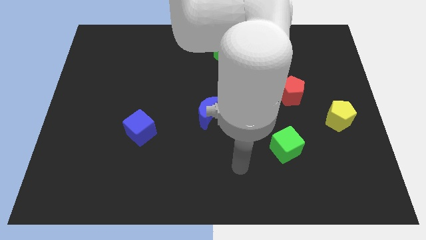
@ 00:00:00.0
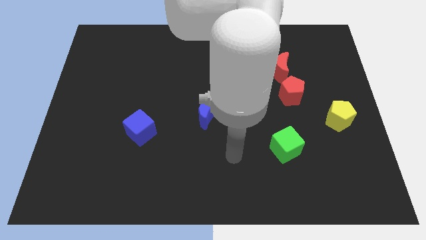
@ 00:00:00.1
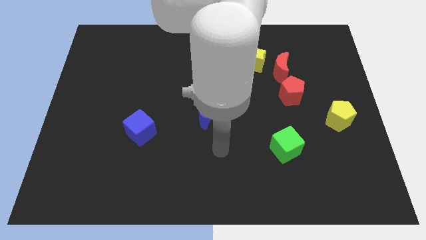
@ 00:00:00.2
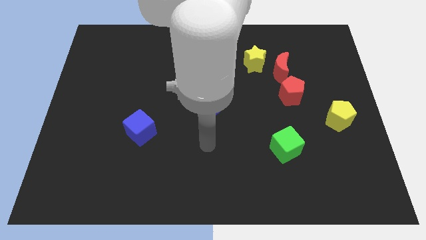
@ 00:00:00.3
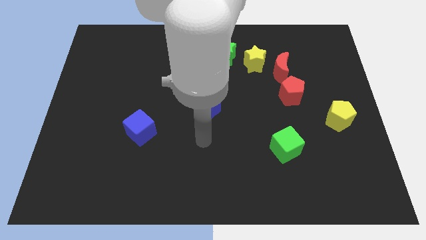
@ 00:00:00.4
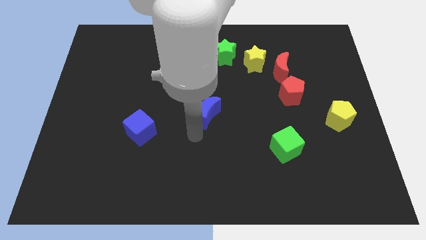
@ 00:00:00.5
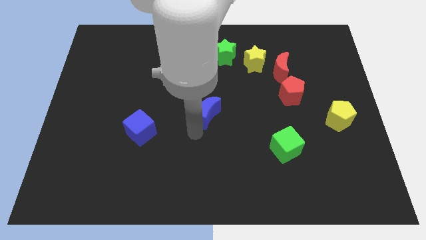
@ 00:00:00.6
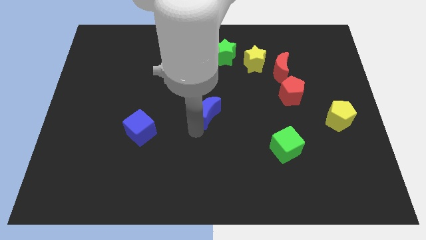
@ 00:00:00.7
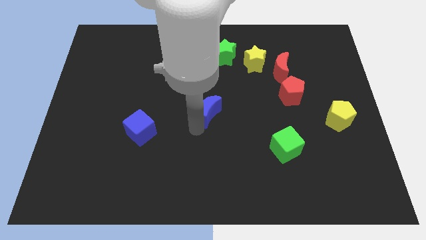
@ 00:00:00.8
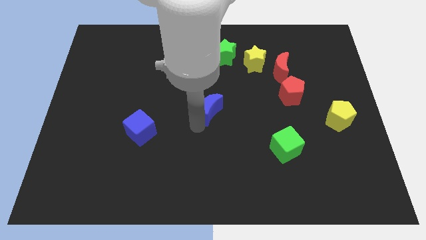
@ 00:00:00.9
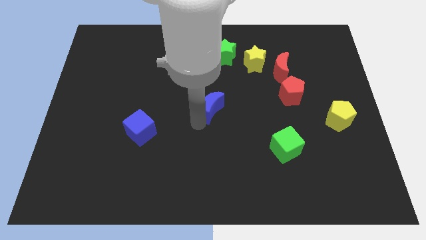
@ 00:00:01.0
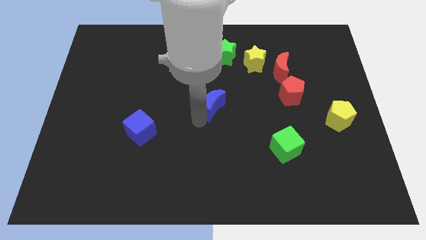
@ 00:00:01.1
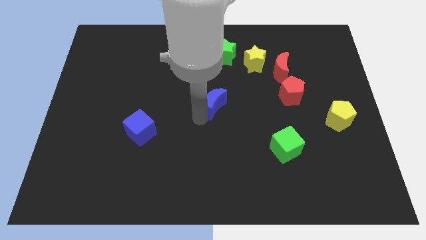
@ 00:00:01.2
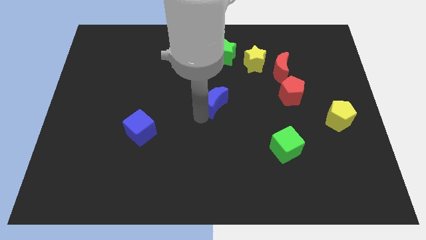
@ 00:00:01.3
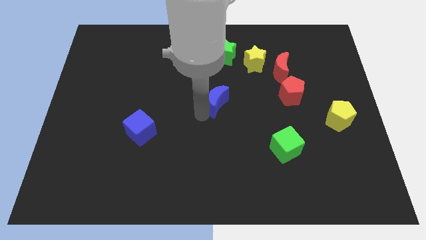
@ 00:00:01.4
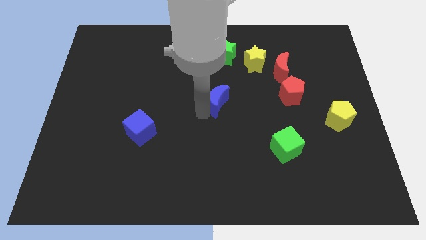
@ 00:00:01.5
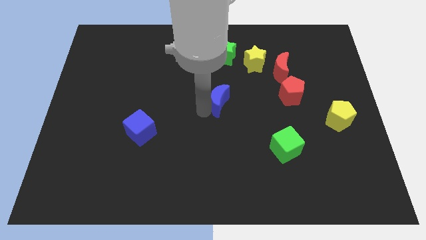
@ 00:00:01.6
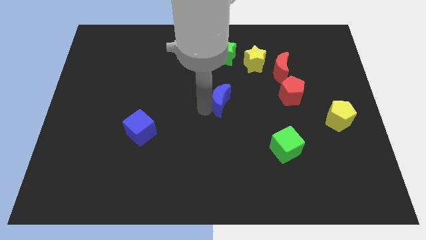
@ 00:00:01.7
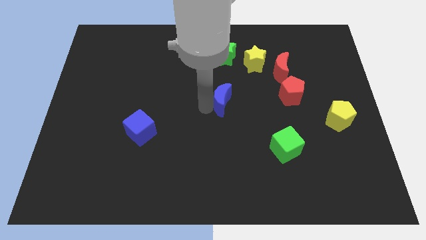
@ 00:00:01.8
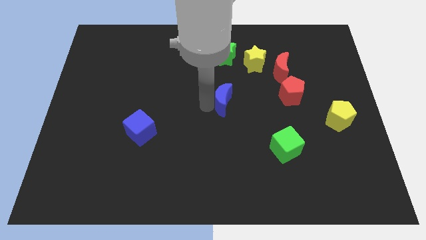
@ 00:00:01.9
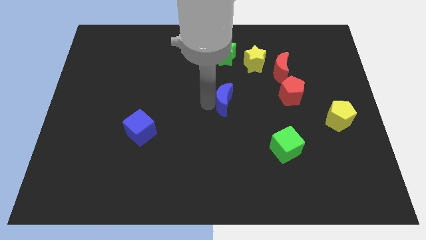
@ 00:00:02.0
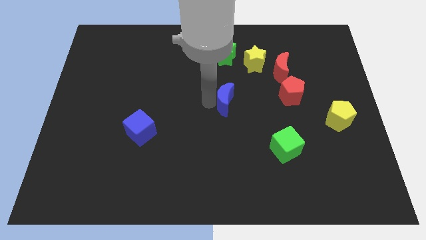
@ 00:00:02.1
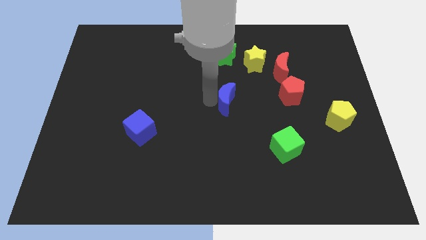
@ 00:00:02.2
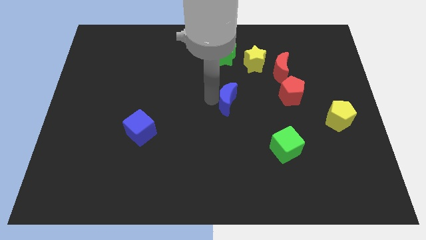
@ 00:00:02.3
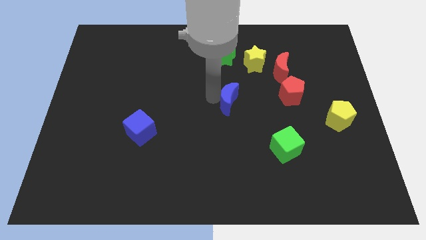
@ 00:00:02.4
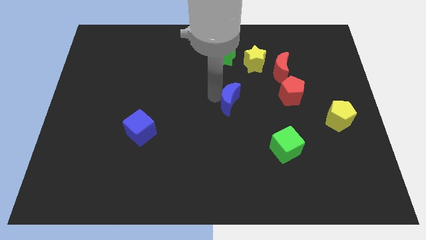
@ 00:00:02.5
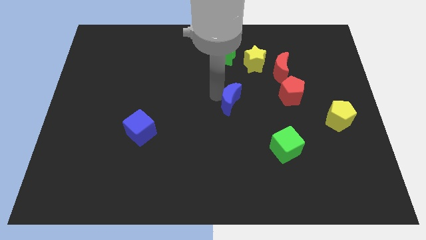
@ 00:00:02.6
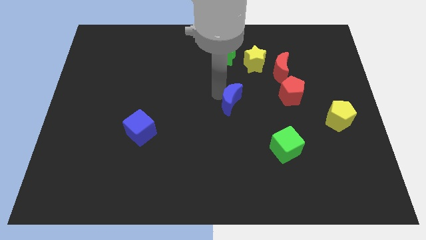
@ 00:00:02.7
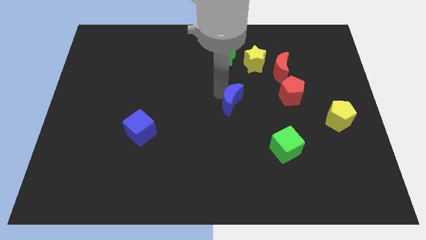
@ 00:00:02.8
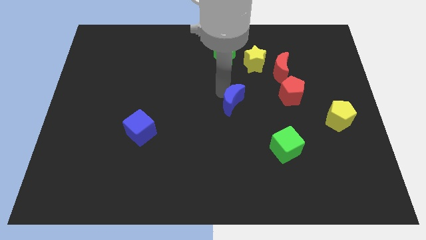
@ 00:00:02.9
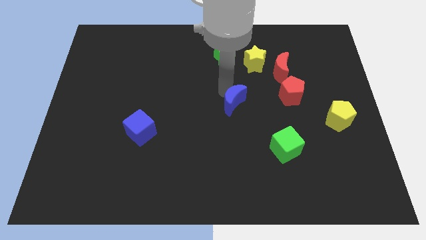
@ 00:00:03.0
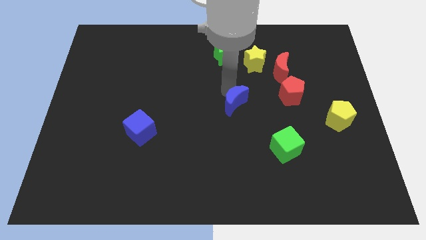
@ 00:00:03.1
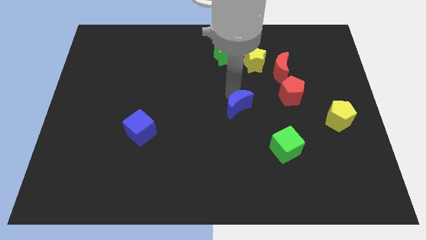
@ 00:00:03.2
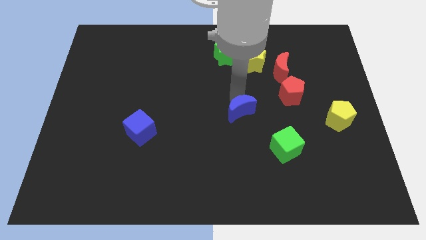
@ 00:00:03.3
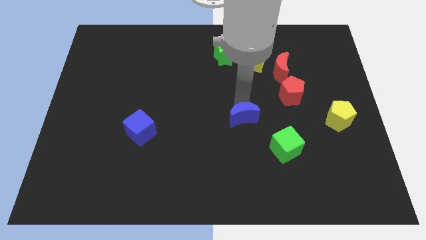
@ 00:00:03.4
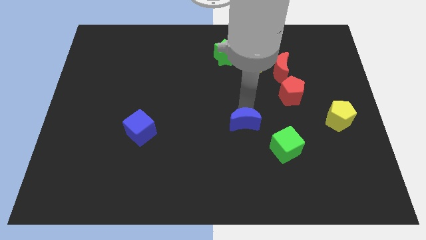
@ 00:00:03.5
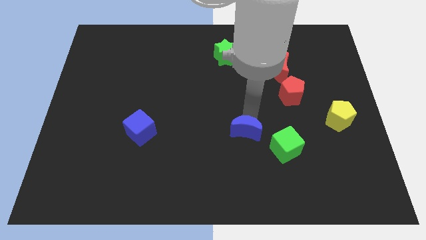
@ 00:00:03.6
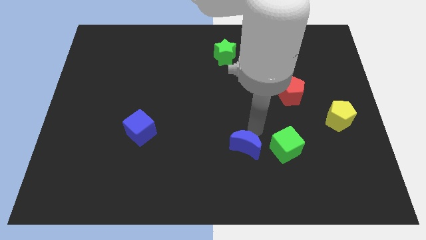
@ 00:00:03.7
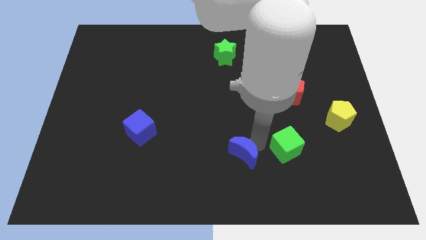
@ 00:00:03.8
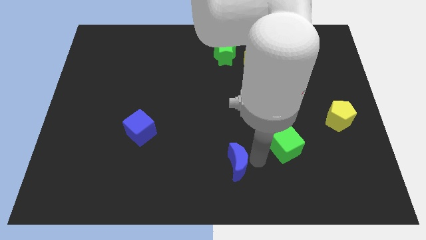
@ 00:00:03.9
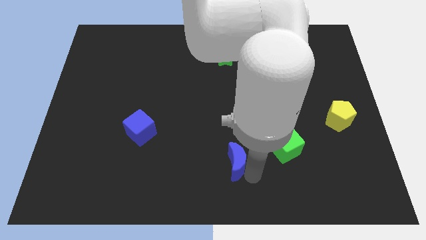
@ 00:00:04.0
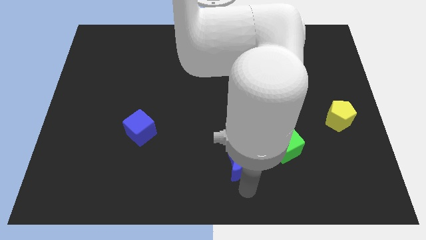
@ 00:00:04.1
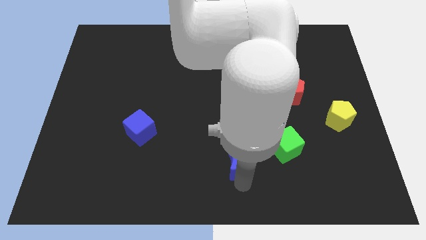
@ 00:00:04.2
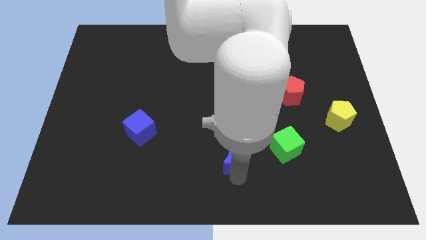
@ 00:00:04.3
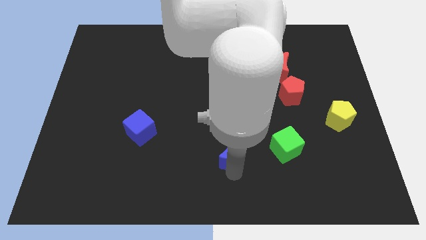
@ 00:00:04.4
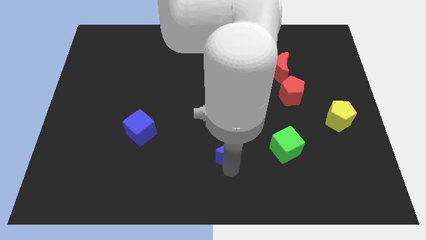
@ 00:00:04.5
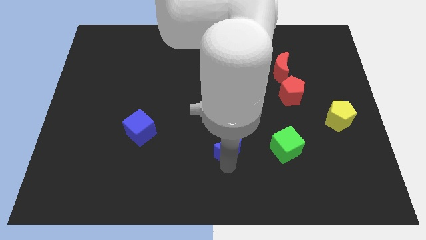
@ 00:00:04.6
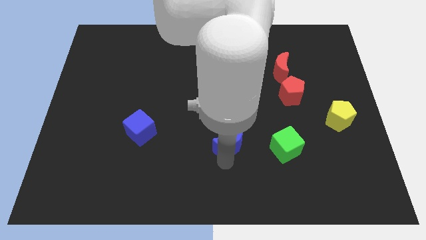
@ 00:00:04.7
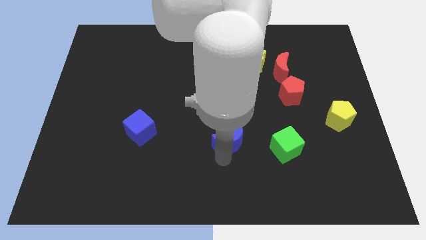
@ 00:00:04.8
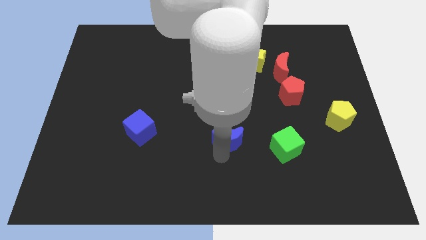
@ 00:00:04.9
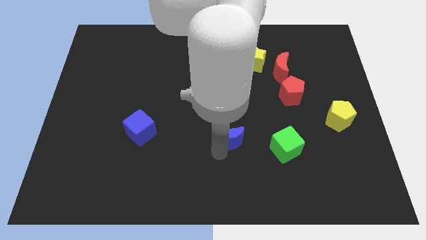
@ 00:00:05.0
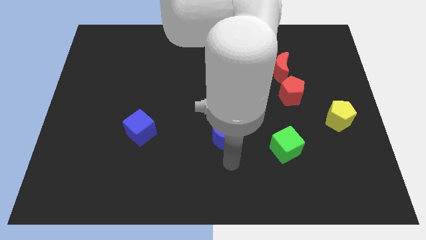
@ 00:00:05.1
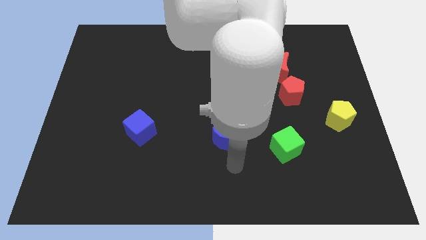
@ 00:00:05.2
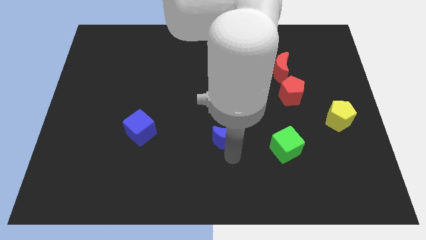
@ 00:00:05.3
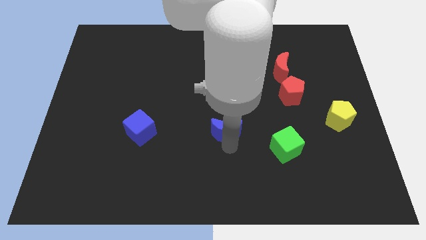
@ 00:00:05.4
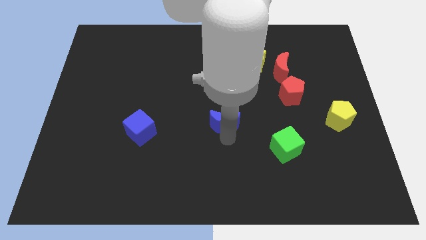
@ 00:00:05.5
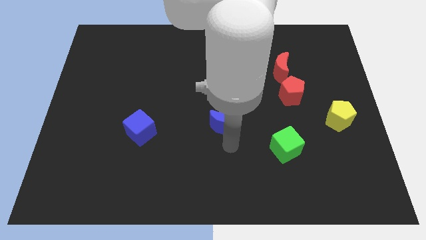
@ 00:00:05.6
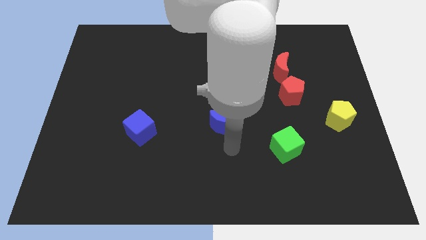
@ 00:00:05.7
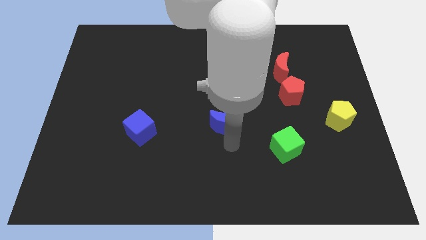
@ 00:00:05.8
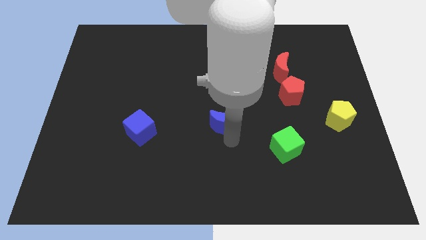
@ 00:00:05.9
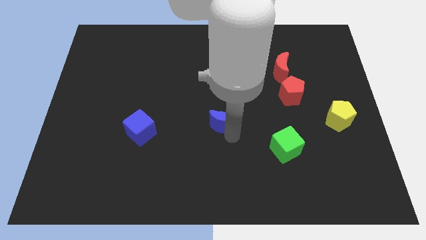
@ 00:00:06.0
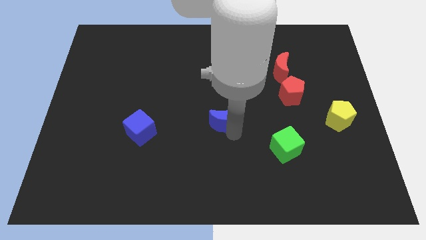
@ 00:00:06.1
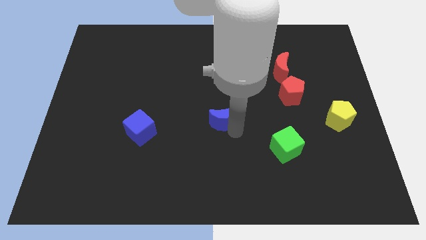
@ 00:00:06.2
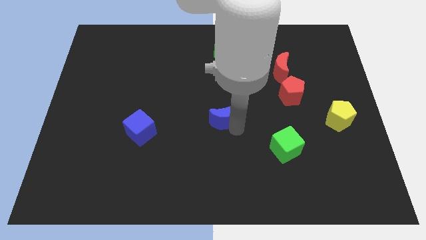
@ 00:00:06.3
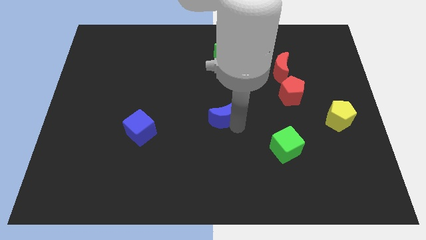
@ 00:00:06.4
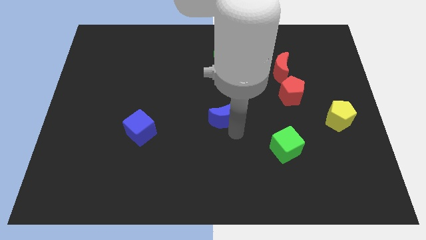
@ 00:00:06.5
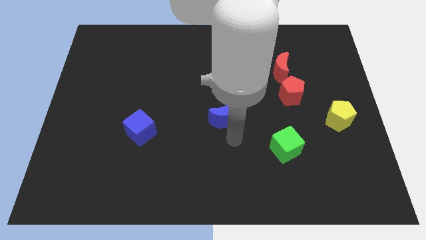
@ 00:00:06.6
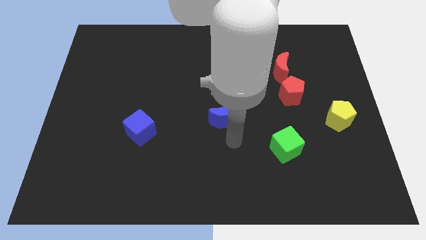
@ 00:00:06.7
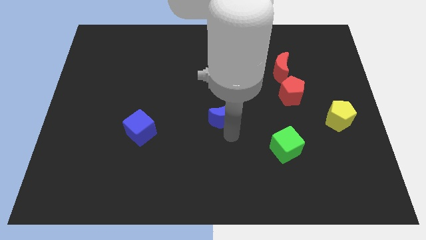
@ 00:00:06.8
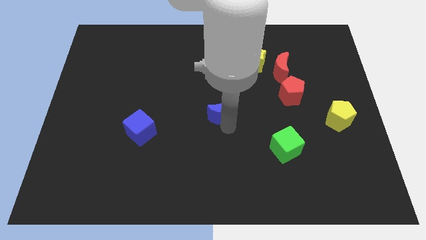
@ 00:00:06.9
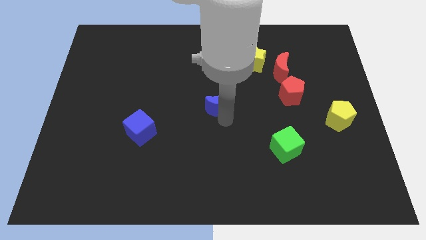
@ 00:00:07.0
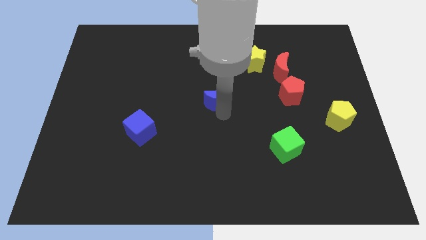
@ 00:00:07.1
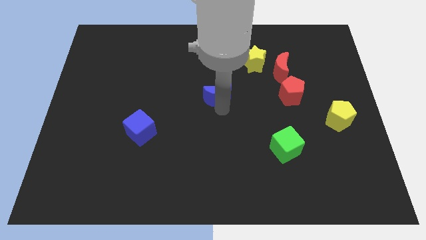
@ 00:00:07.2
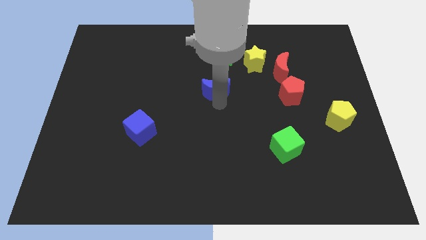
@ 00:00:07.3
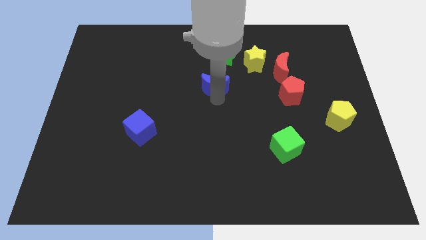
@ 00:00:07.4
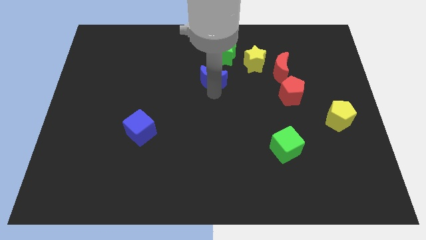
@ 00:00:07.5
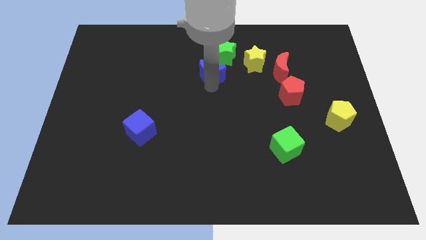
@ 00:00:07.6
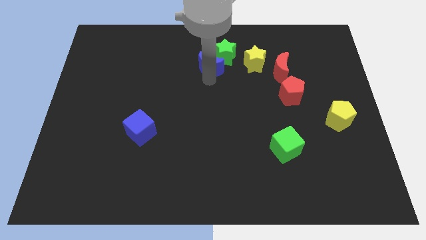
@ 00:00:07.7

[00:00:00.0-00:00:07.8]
slide the blue moon next to the green star

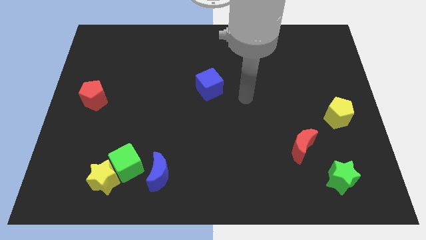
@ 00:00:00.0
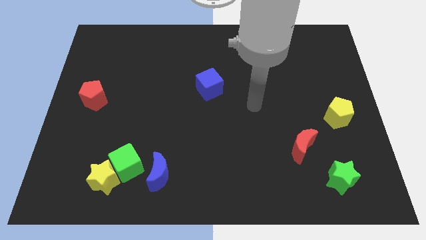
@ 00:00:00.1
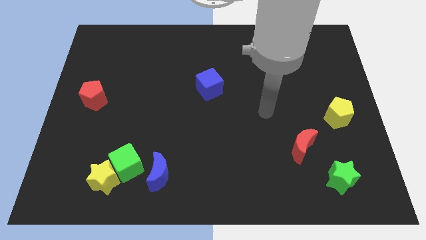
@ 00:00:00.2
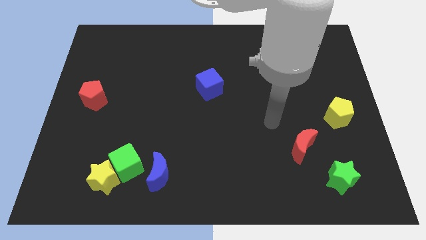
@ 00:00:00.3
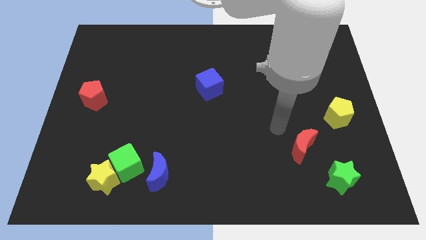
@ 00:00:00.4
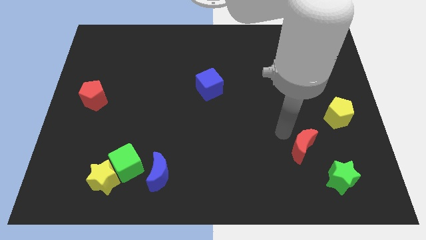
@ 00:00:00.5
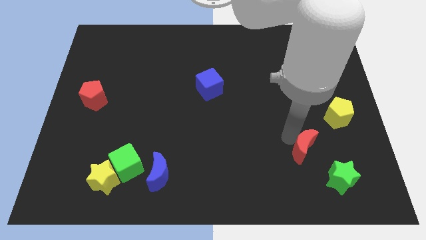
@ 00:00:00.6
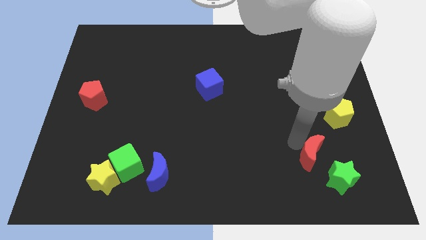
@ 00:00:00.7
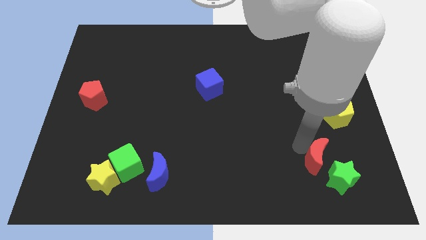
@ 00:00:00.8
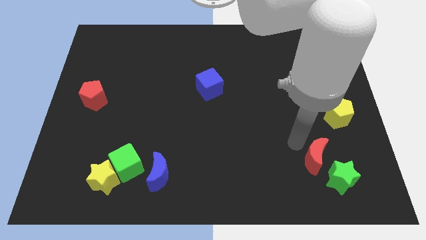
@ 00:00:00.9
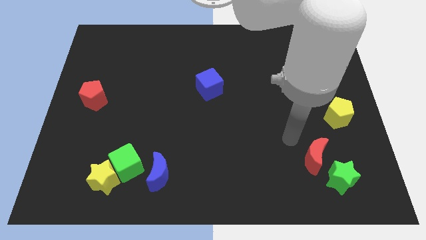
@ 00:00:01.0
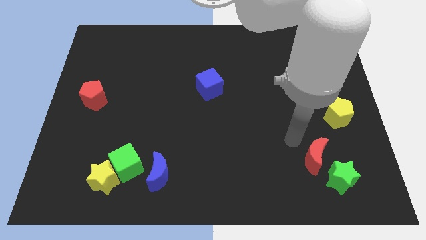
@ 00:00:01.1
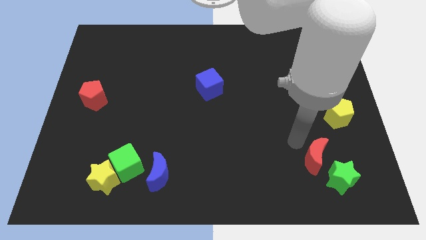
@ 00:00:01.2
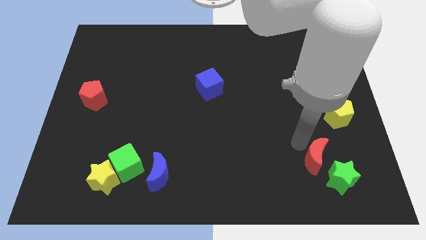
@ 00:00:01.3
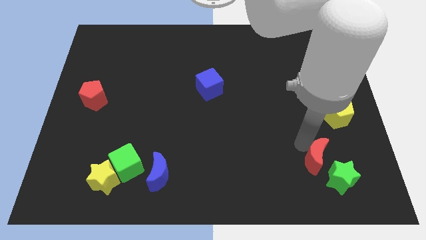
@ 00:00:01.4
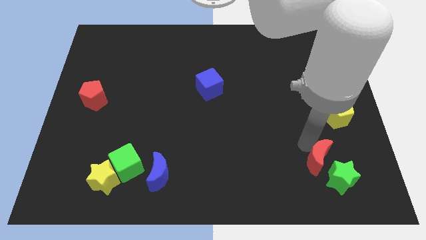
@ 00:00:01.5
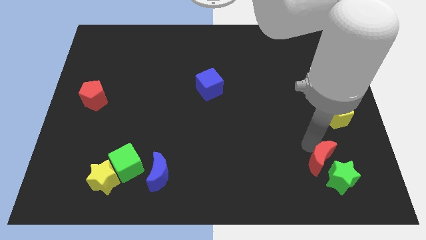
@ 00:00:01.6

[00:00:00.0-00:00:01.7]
put the red moon to the green star
